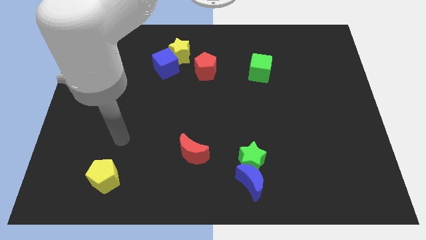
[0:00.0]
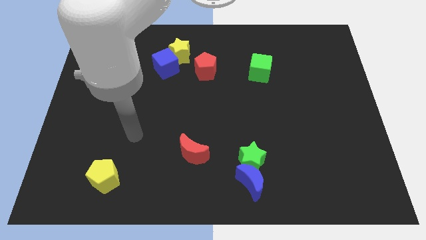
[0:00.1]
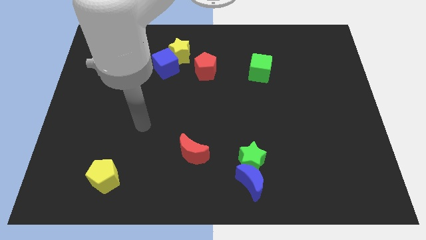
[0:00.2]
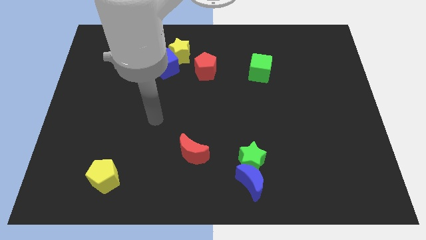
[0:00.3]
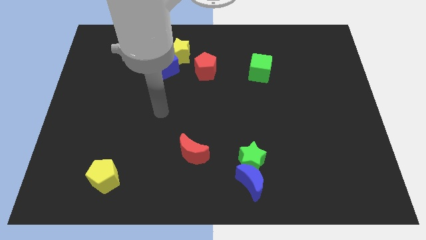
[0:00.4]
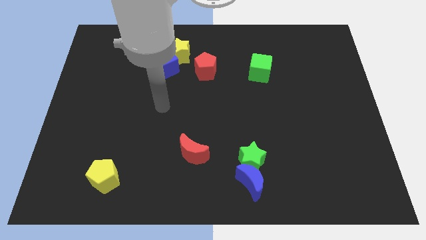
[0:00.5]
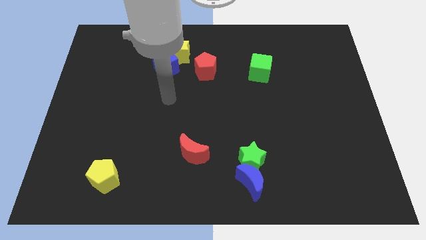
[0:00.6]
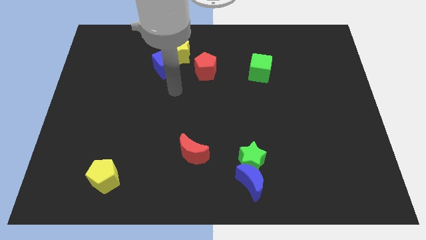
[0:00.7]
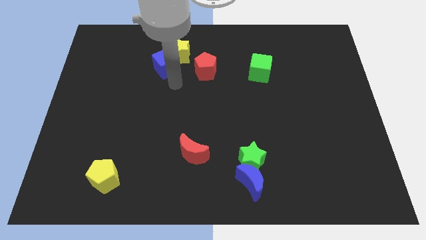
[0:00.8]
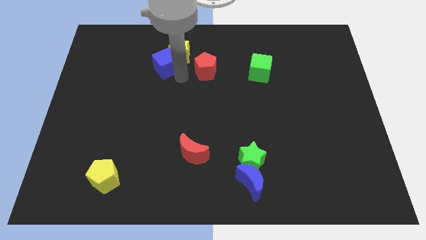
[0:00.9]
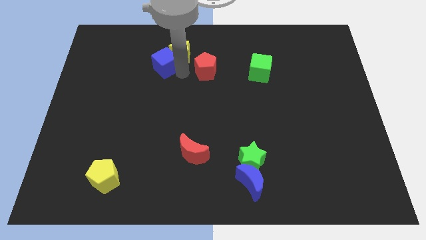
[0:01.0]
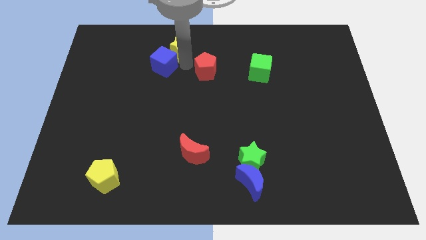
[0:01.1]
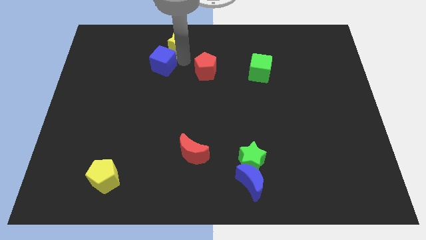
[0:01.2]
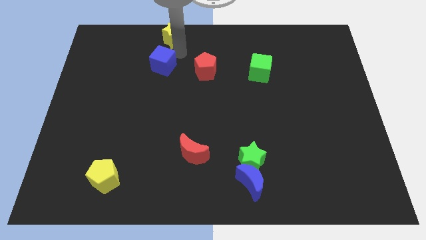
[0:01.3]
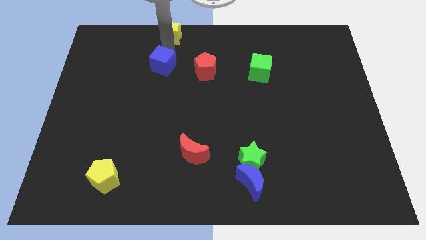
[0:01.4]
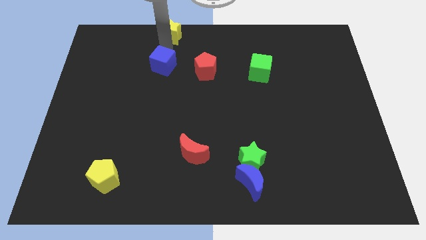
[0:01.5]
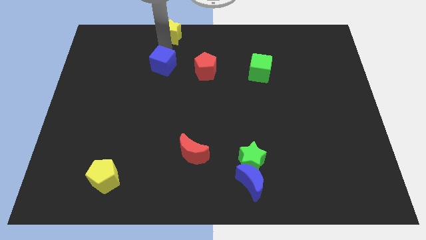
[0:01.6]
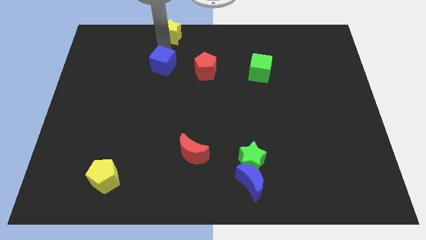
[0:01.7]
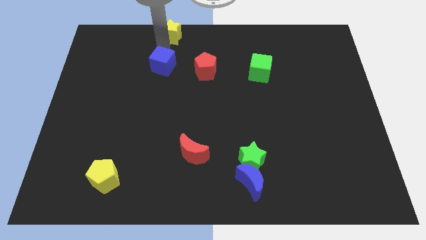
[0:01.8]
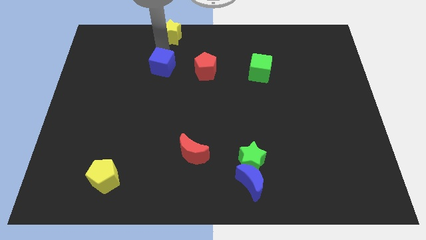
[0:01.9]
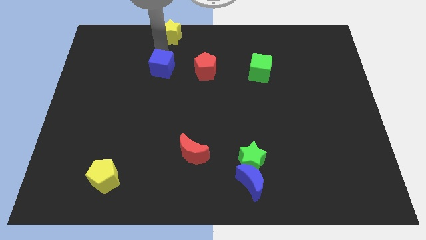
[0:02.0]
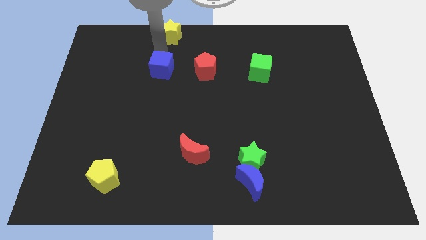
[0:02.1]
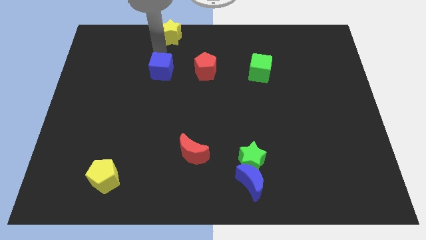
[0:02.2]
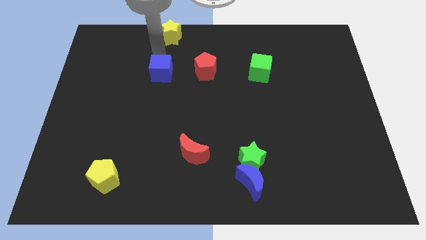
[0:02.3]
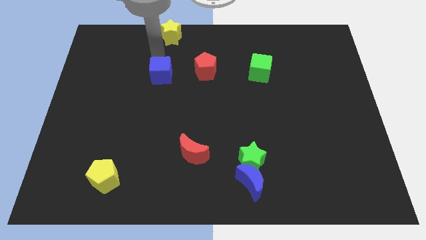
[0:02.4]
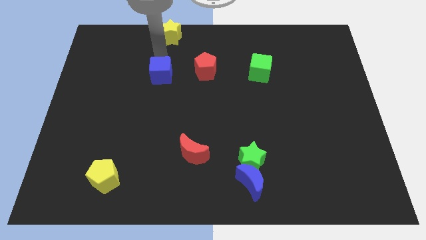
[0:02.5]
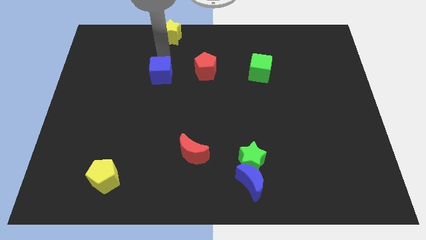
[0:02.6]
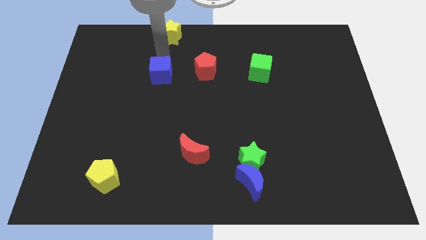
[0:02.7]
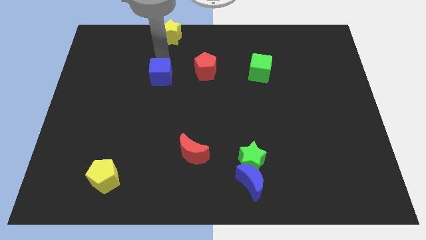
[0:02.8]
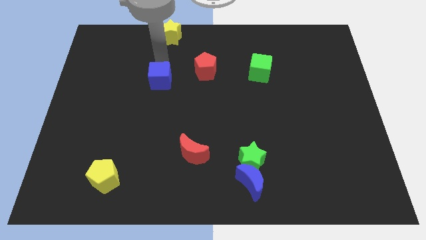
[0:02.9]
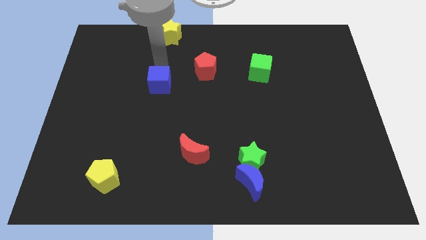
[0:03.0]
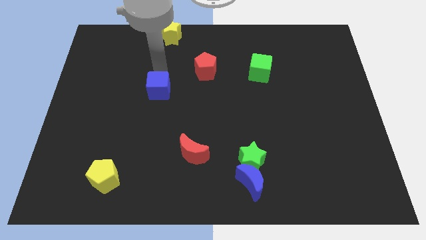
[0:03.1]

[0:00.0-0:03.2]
move the blue cube down a little

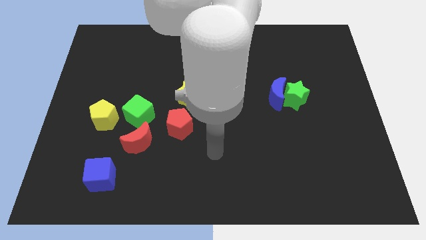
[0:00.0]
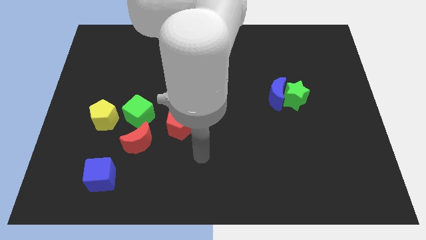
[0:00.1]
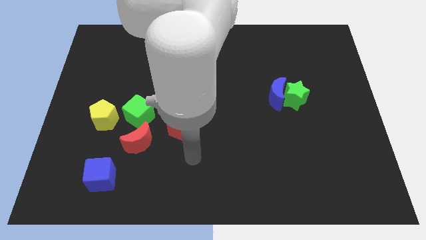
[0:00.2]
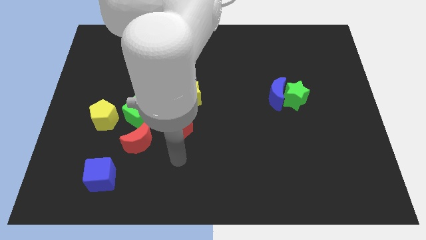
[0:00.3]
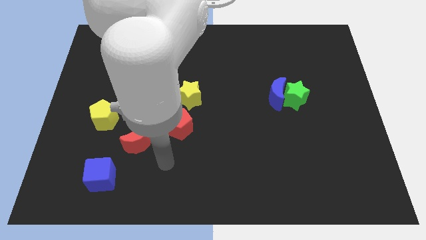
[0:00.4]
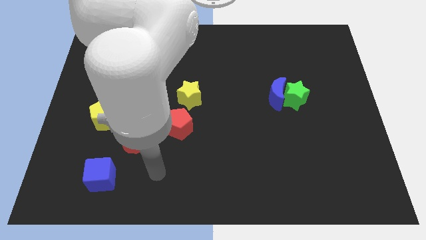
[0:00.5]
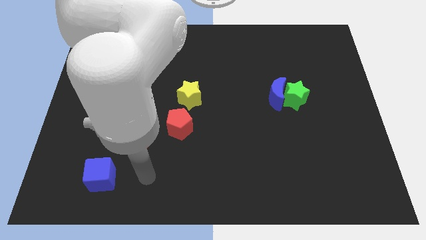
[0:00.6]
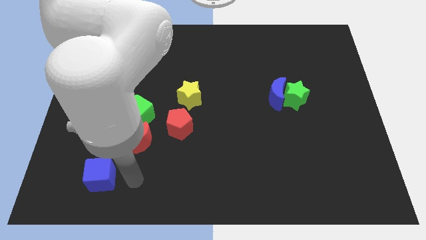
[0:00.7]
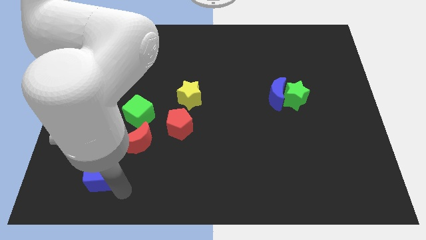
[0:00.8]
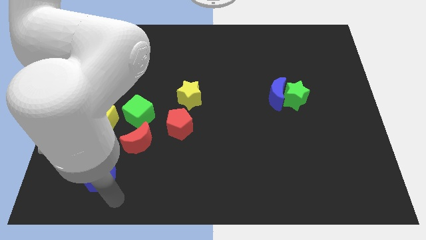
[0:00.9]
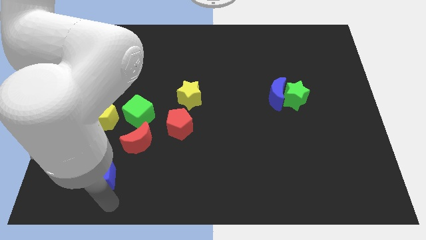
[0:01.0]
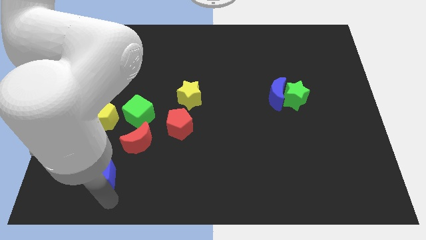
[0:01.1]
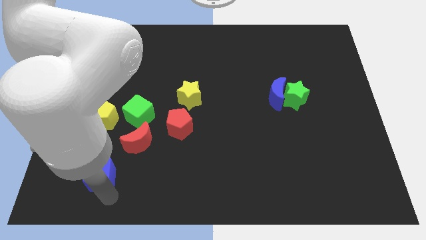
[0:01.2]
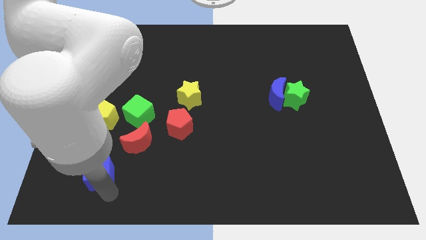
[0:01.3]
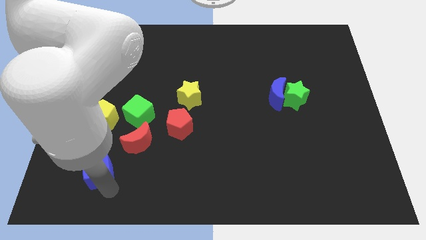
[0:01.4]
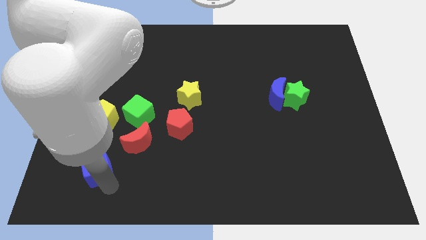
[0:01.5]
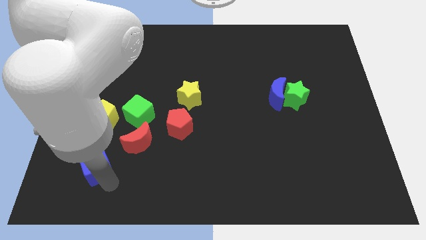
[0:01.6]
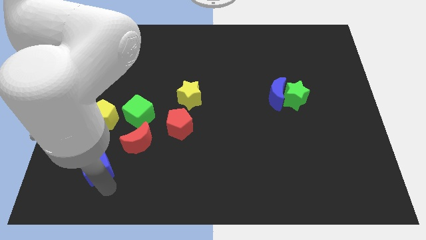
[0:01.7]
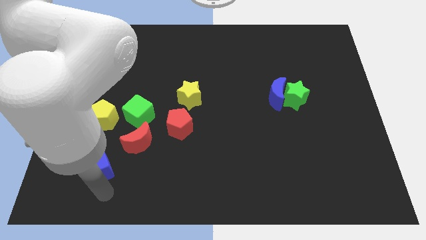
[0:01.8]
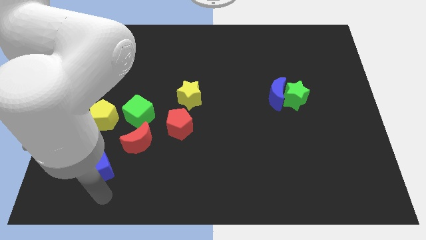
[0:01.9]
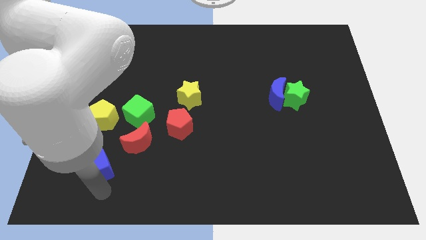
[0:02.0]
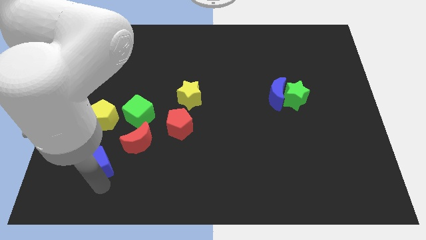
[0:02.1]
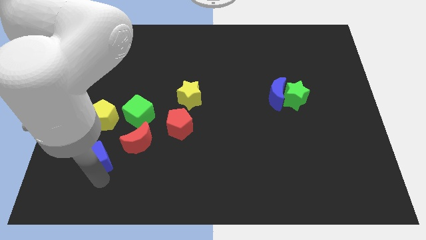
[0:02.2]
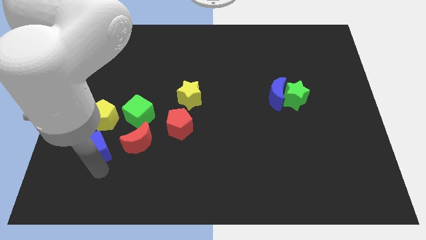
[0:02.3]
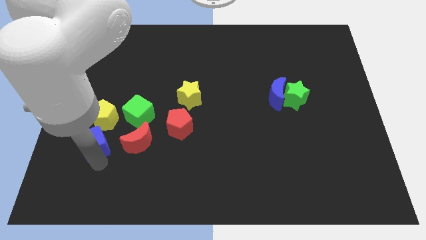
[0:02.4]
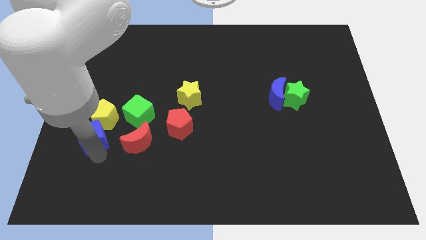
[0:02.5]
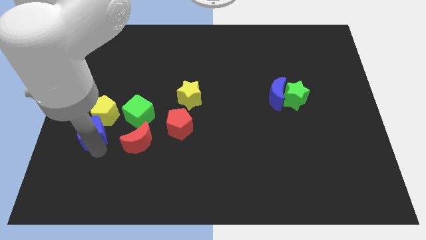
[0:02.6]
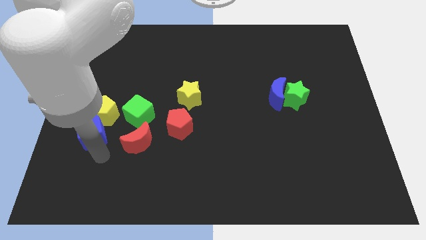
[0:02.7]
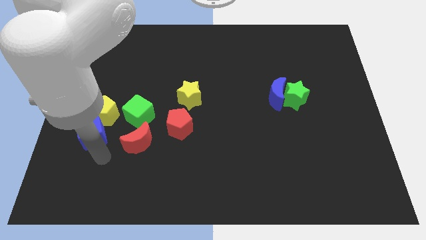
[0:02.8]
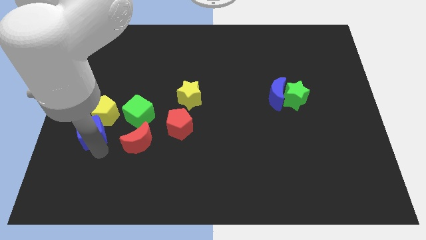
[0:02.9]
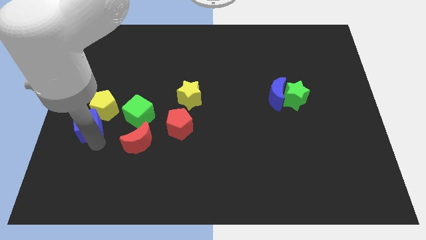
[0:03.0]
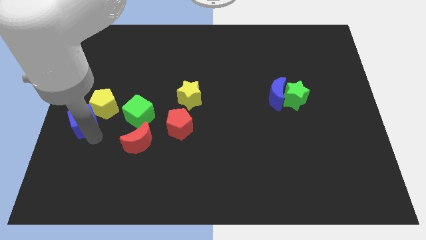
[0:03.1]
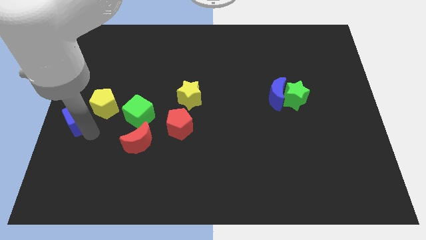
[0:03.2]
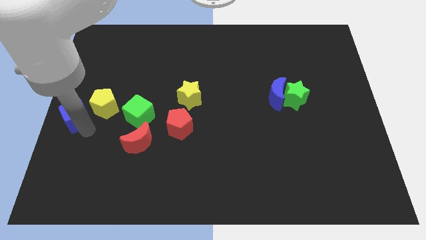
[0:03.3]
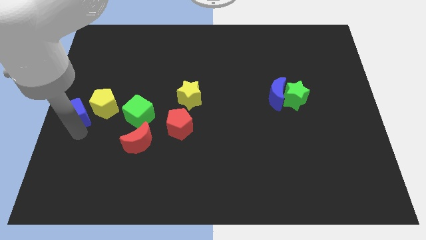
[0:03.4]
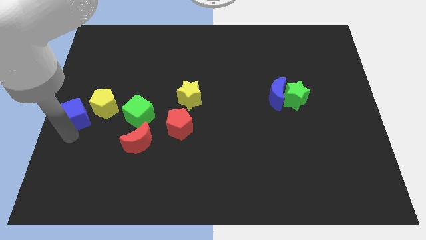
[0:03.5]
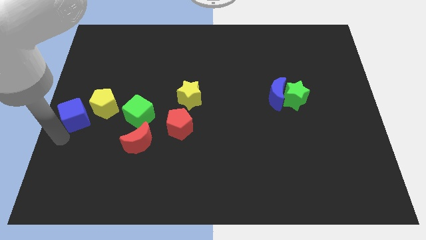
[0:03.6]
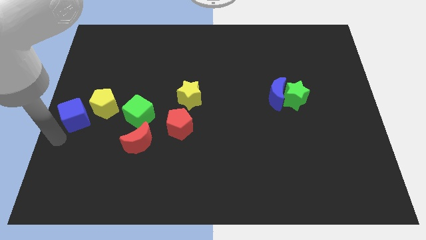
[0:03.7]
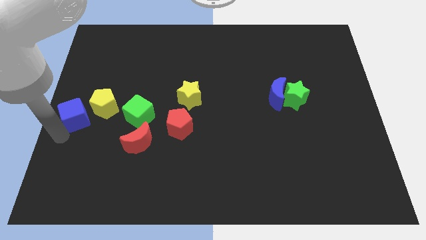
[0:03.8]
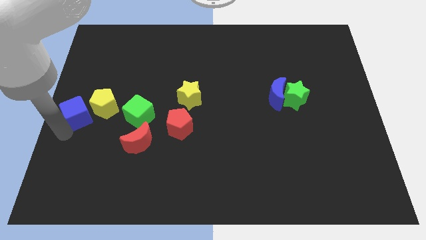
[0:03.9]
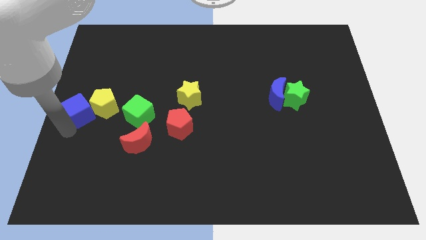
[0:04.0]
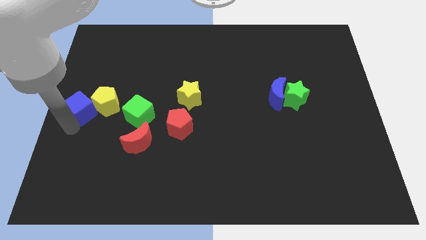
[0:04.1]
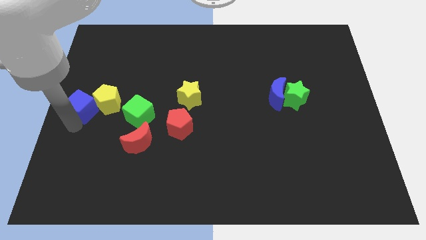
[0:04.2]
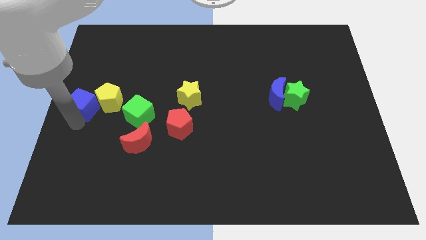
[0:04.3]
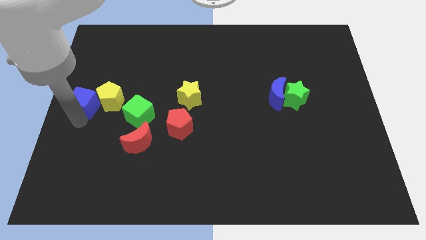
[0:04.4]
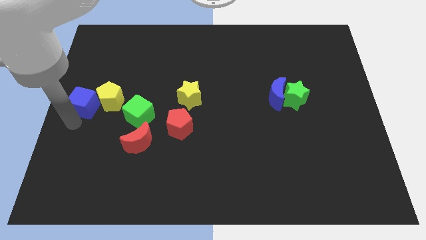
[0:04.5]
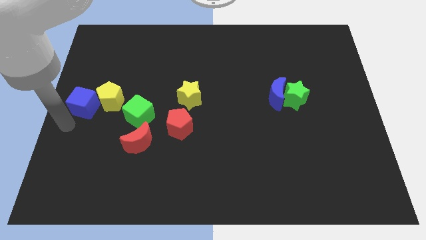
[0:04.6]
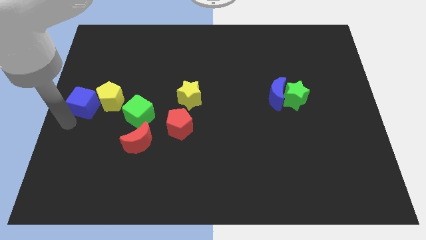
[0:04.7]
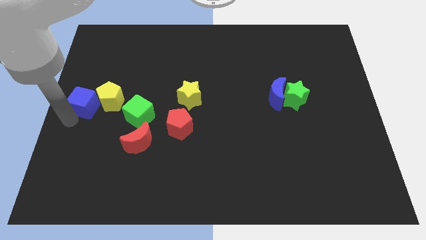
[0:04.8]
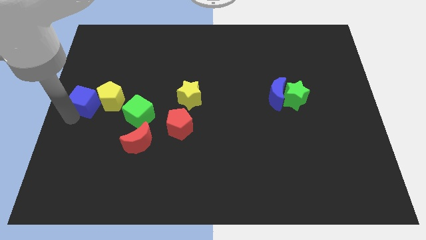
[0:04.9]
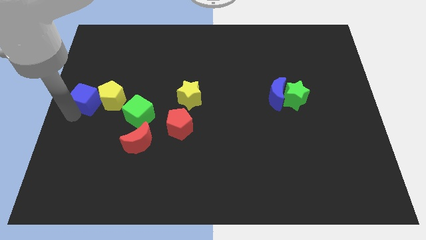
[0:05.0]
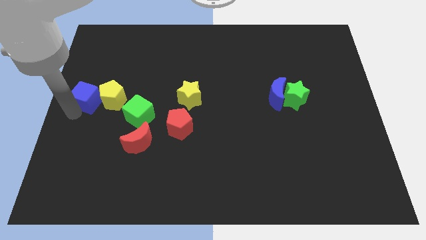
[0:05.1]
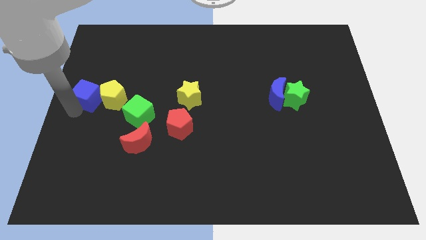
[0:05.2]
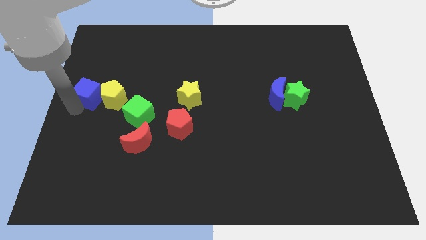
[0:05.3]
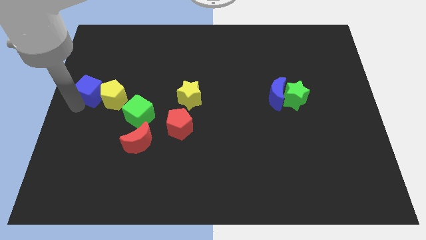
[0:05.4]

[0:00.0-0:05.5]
push the blue cube up

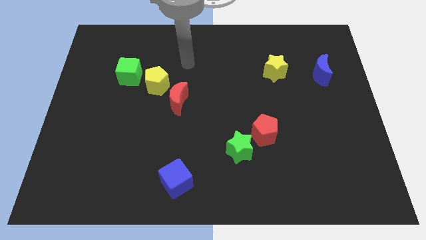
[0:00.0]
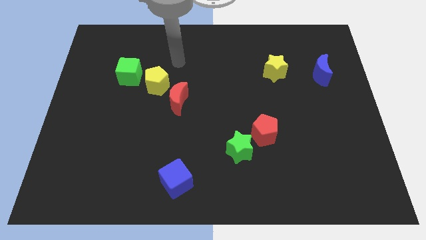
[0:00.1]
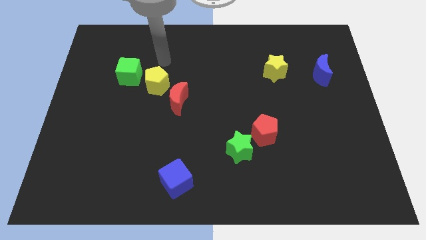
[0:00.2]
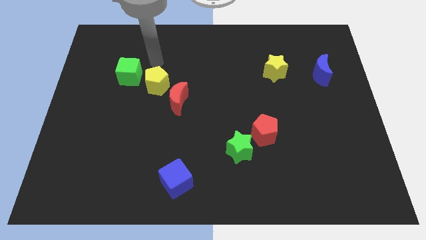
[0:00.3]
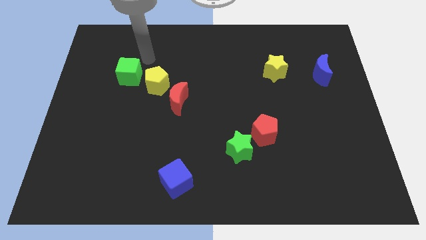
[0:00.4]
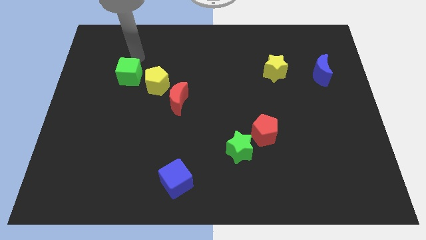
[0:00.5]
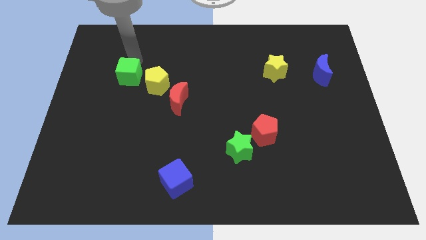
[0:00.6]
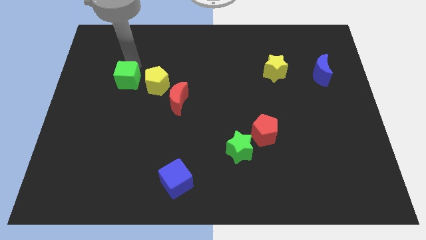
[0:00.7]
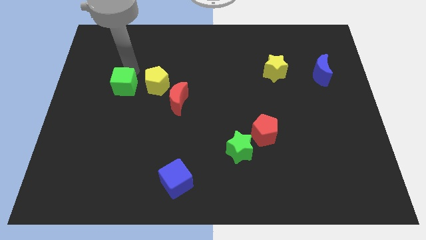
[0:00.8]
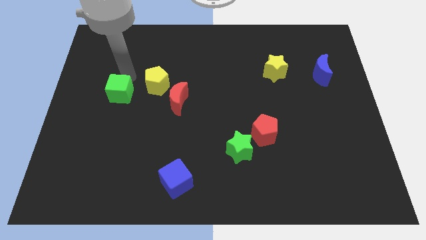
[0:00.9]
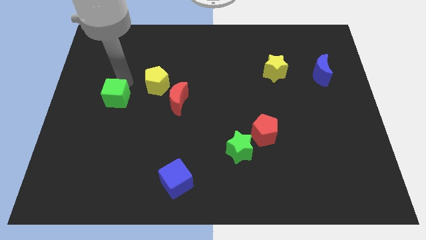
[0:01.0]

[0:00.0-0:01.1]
push the green cube down a bit
